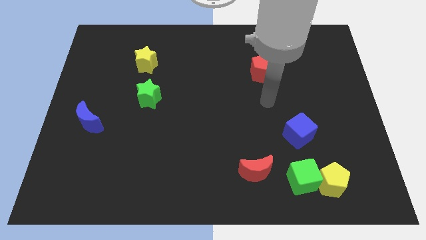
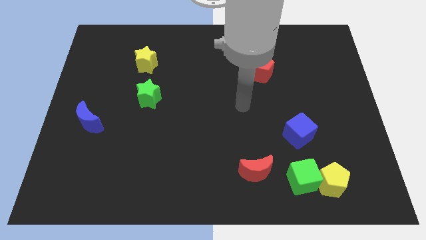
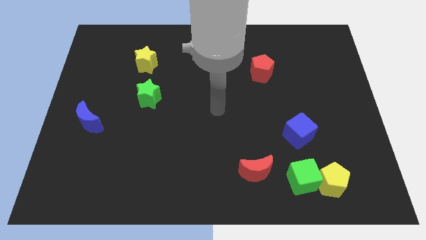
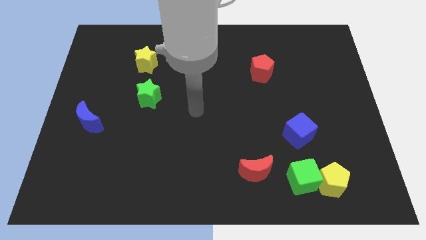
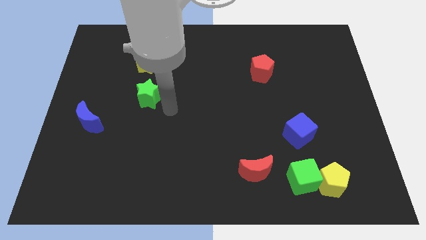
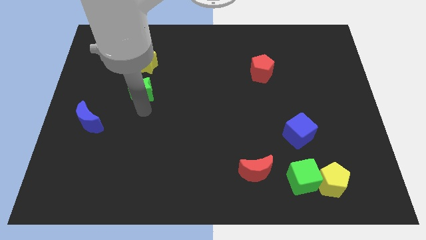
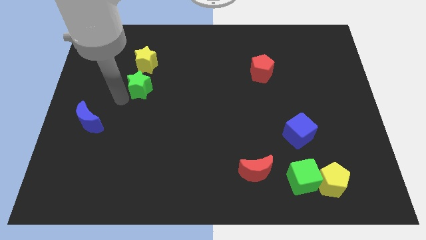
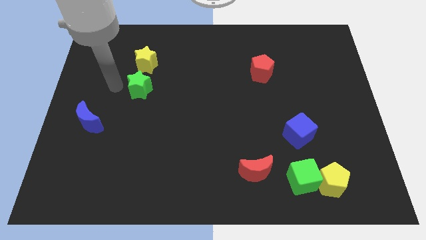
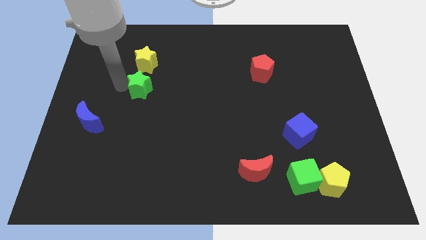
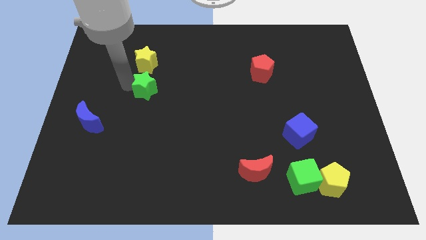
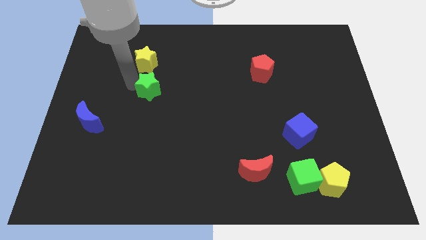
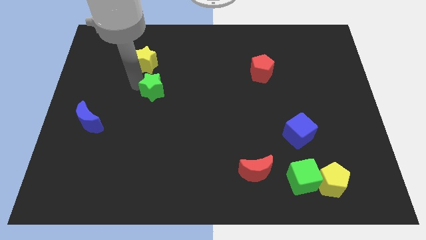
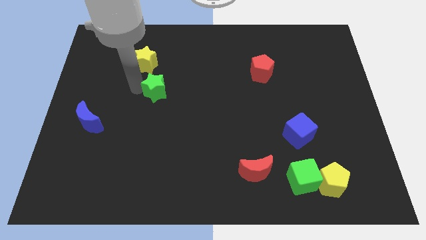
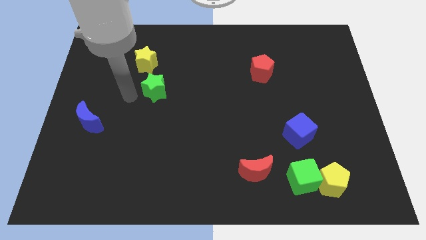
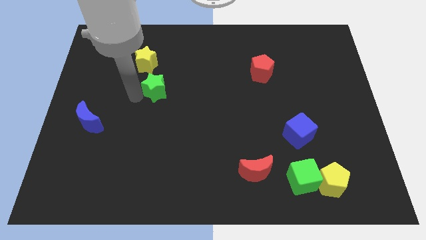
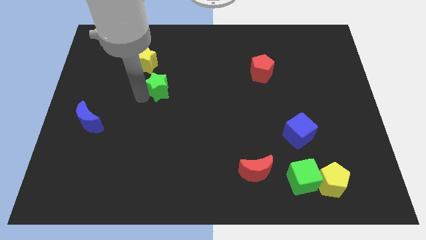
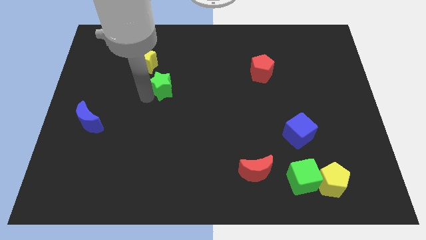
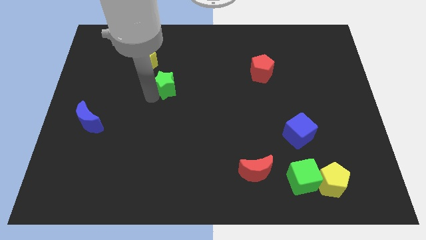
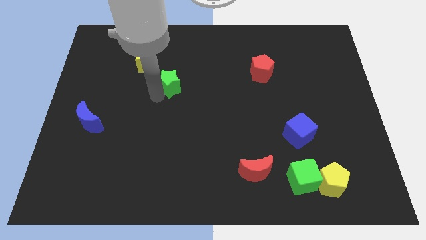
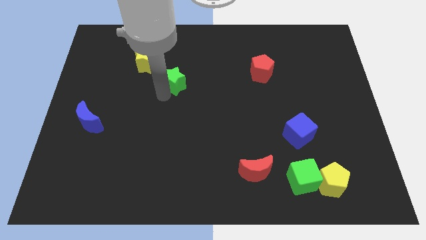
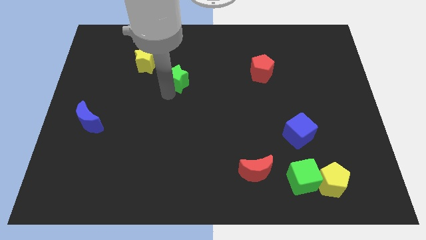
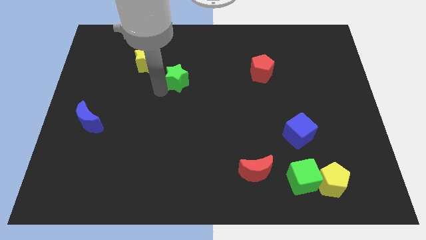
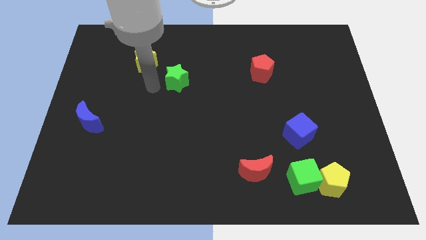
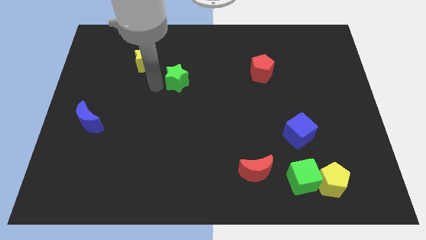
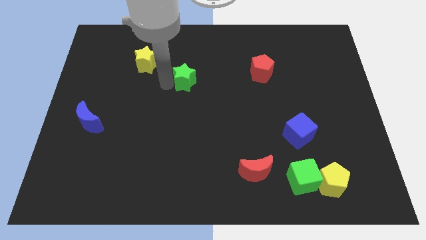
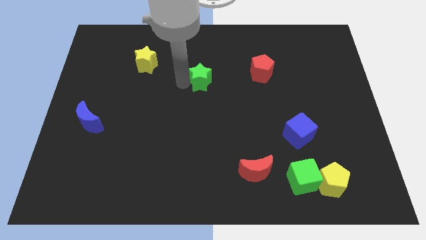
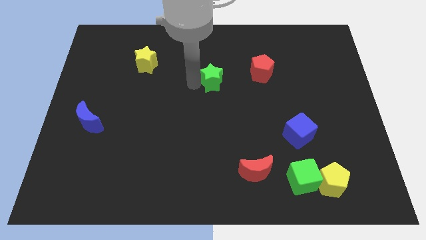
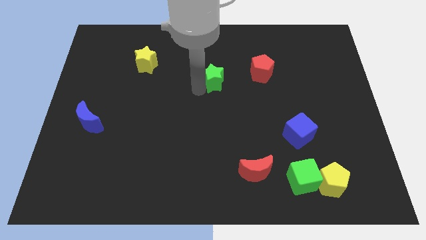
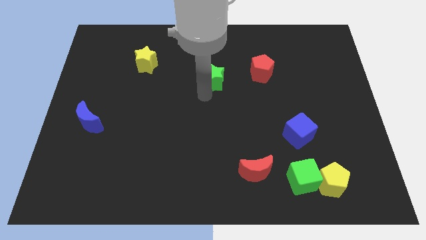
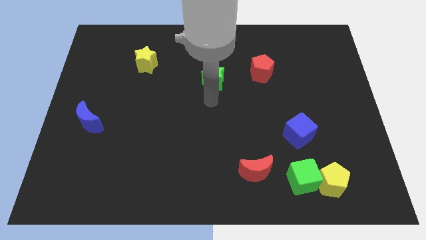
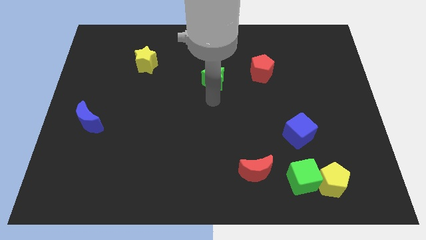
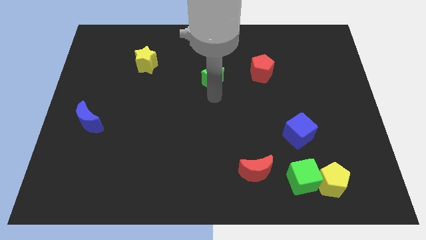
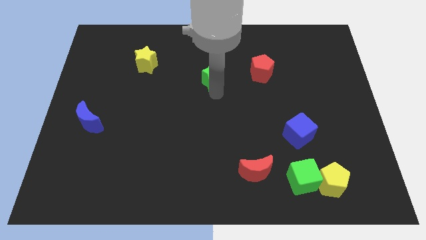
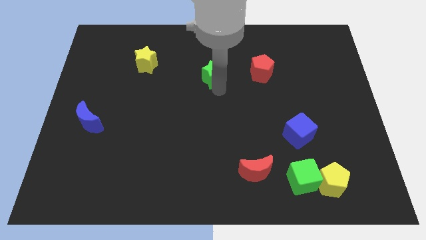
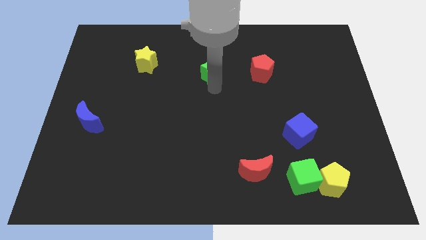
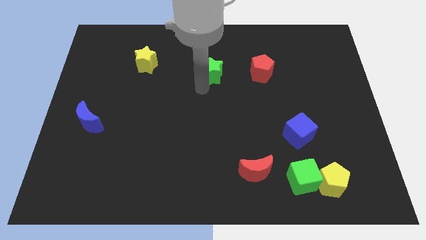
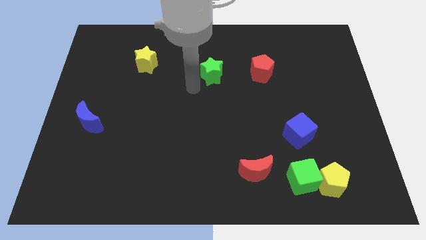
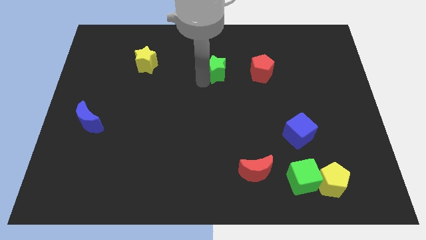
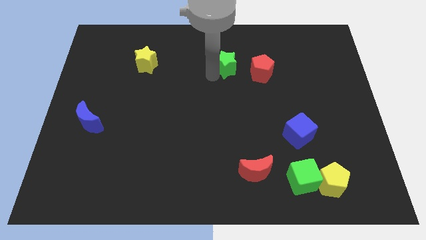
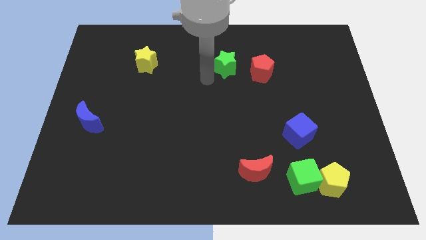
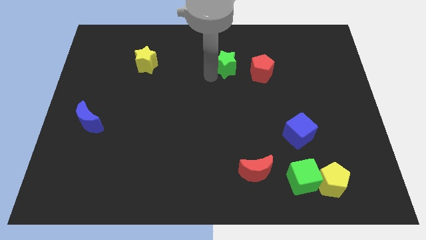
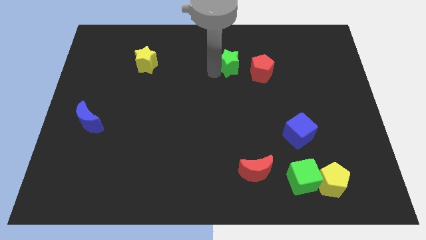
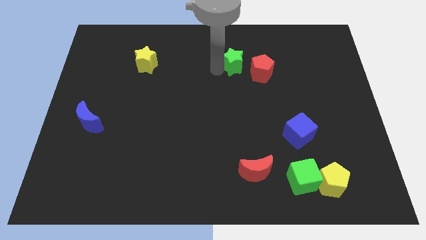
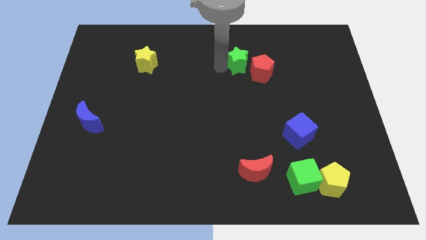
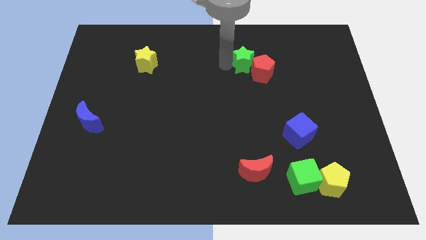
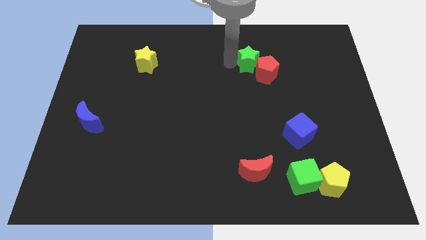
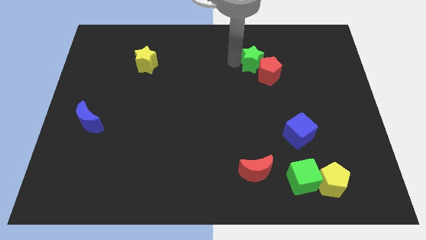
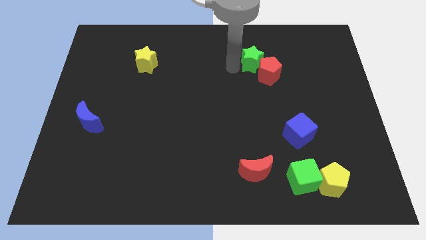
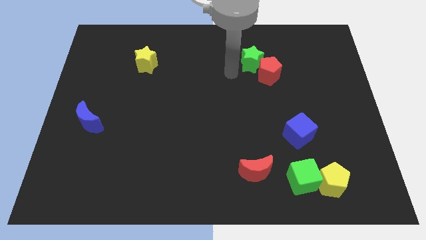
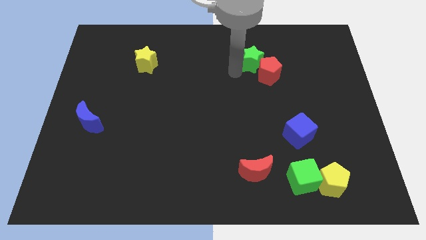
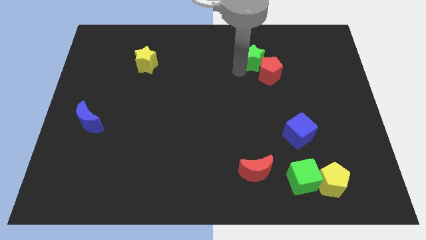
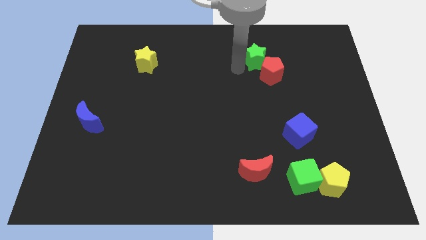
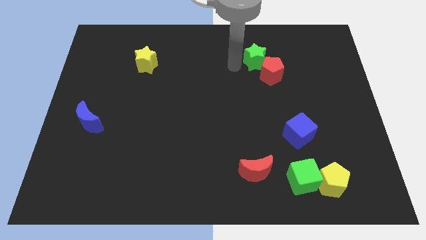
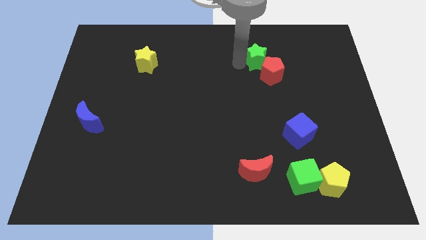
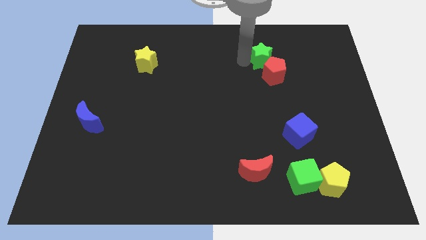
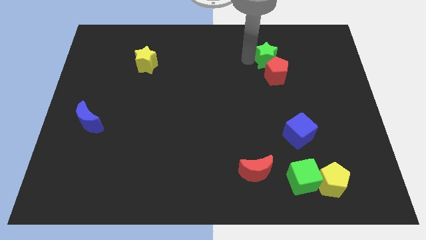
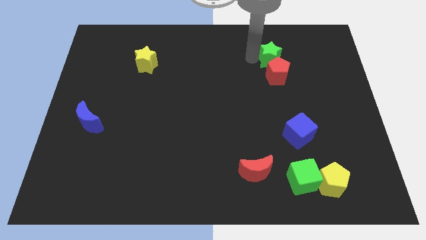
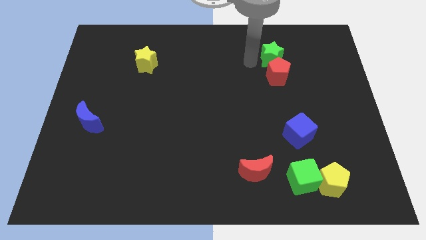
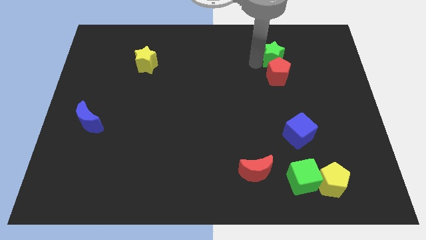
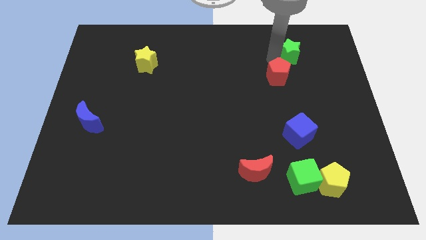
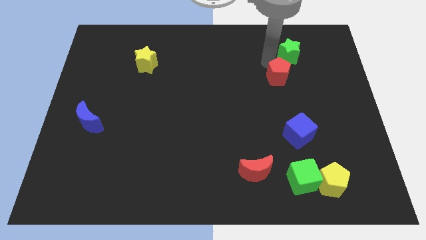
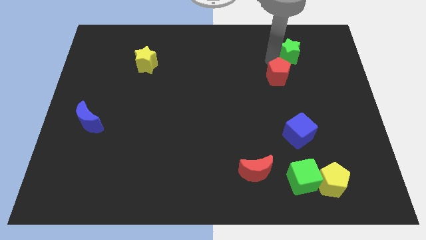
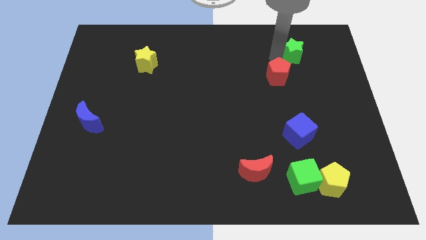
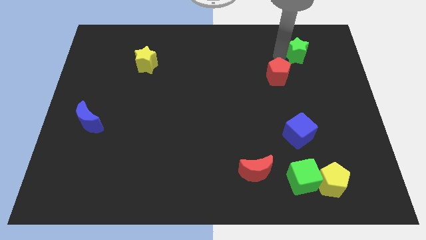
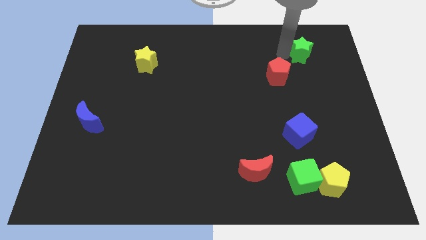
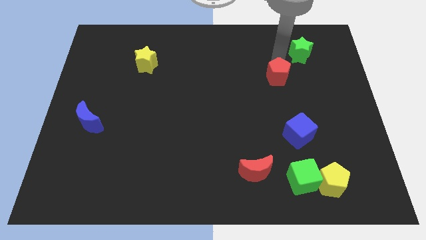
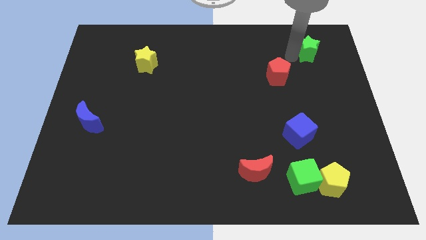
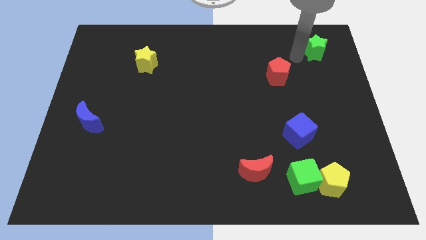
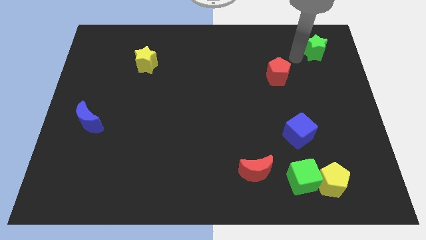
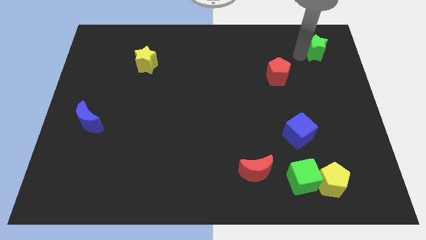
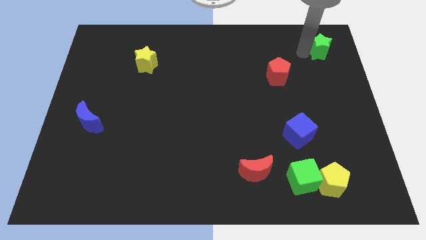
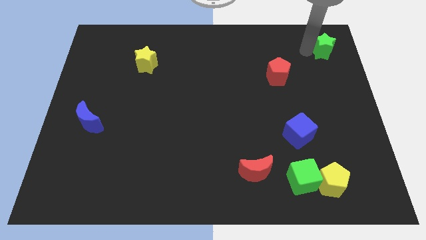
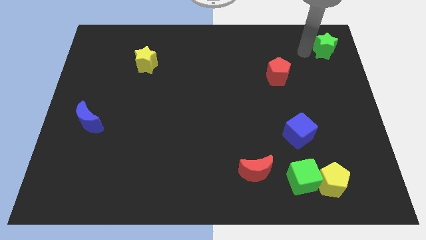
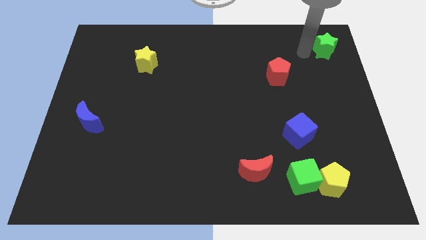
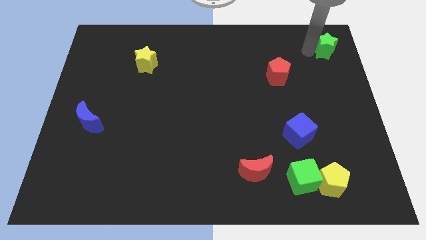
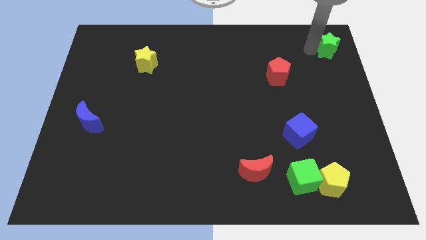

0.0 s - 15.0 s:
push the green star to the top right corner
